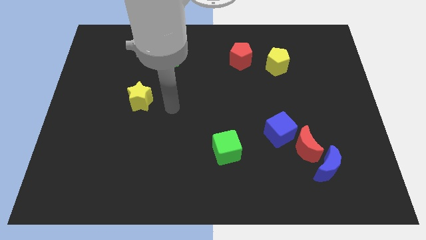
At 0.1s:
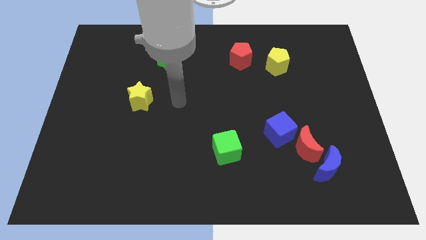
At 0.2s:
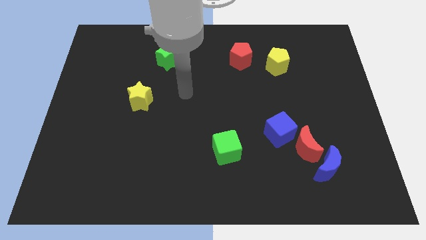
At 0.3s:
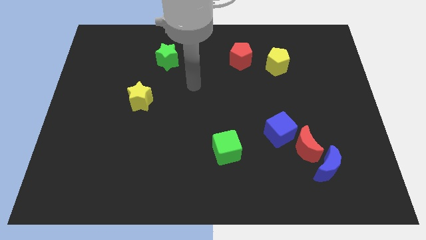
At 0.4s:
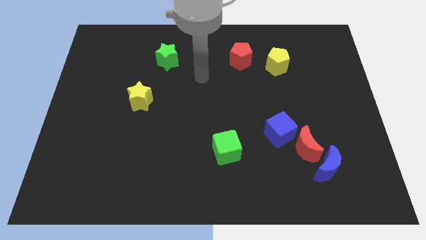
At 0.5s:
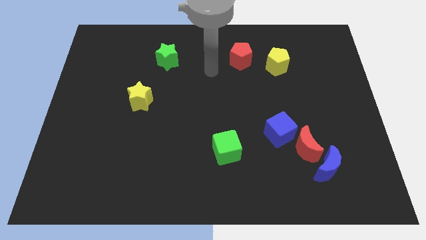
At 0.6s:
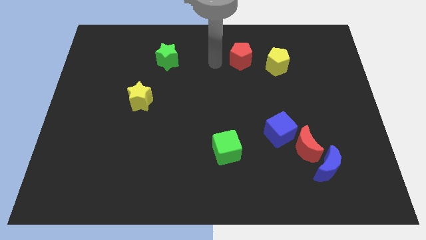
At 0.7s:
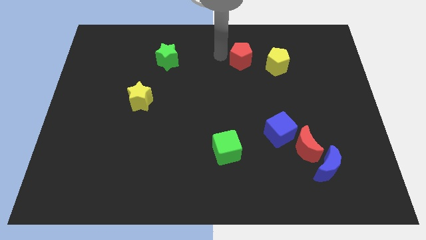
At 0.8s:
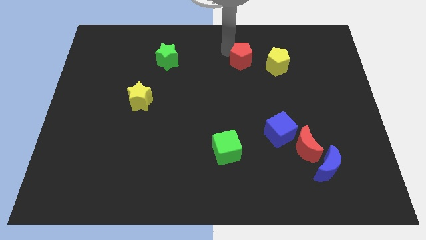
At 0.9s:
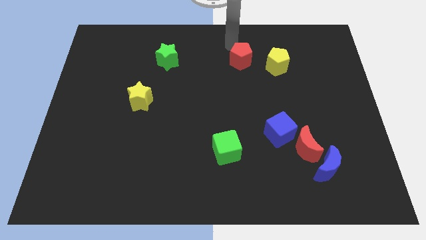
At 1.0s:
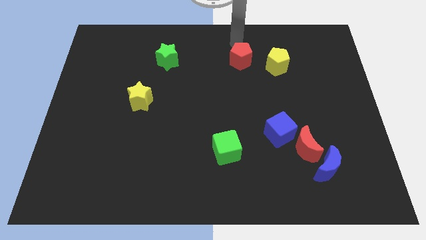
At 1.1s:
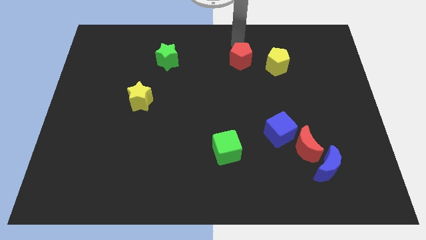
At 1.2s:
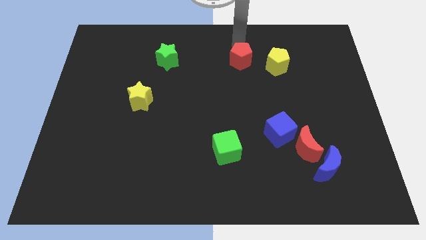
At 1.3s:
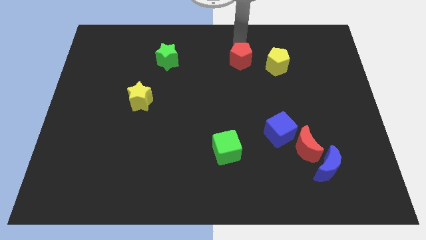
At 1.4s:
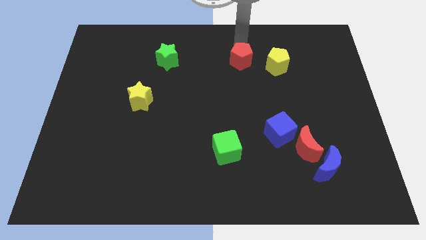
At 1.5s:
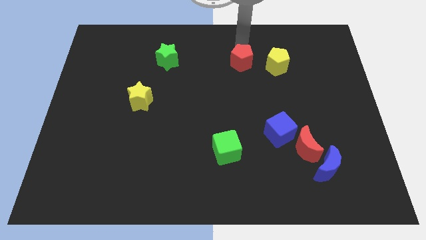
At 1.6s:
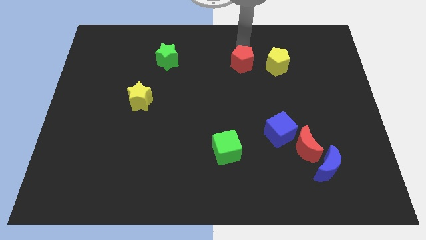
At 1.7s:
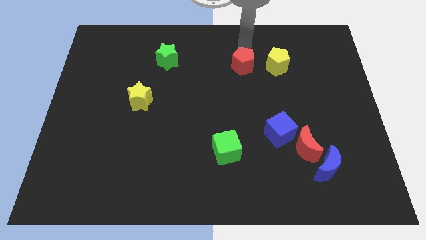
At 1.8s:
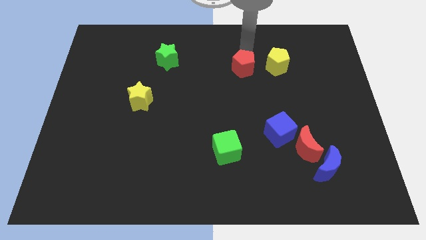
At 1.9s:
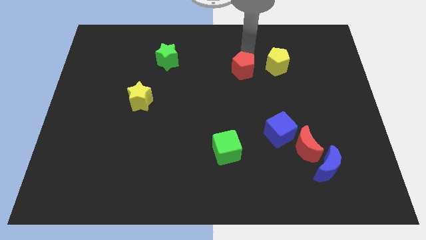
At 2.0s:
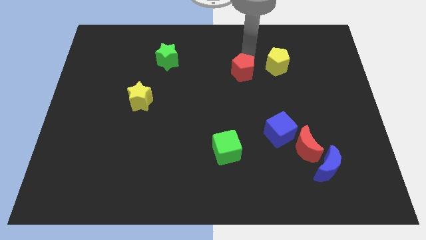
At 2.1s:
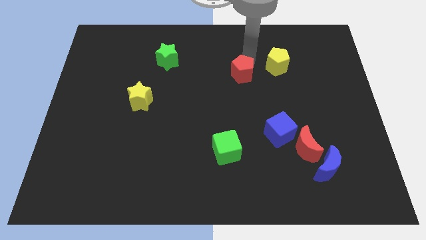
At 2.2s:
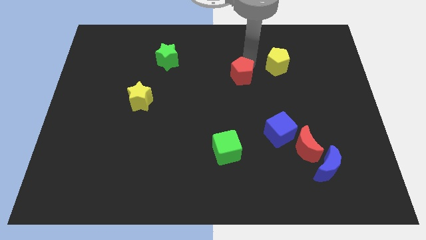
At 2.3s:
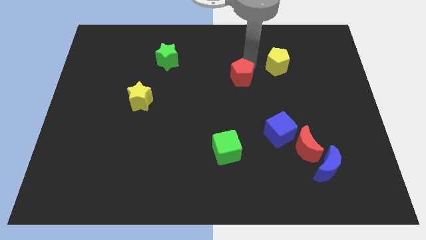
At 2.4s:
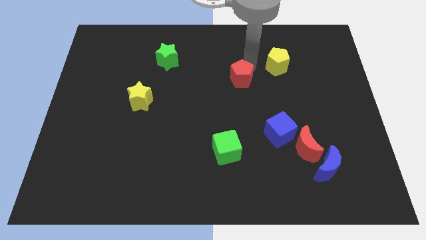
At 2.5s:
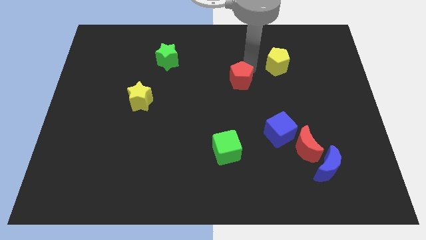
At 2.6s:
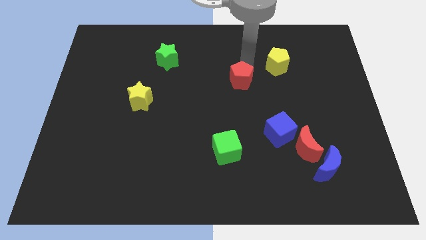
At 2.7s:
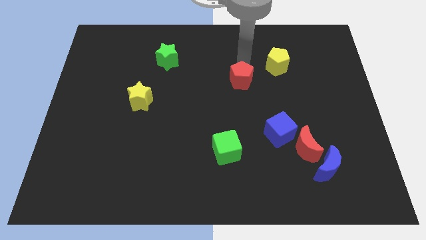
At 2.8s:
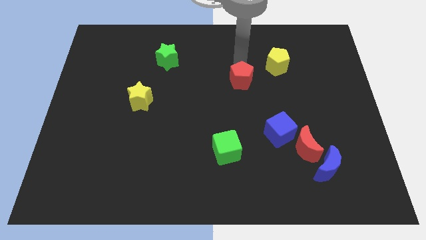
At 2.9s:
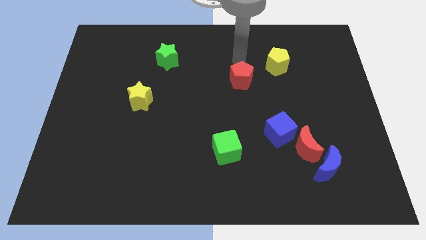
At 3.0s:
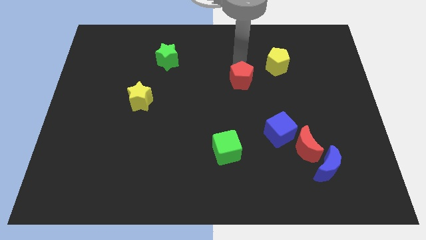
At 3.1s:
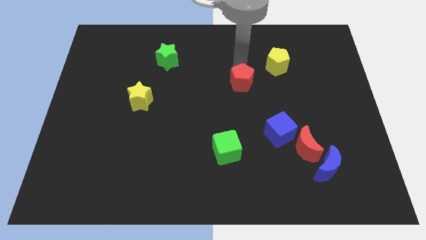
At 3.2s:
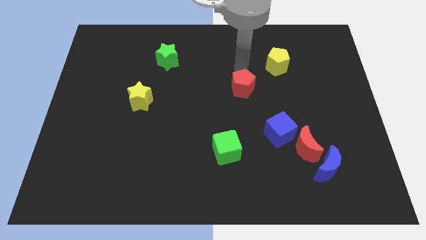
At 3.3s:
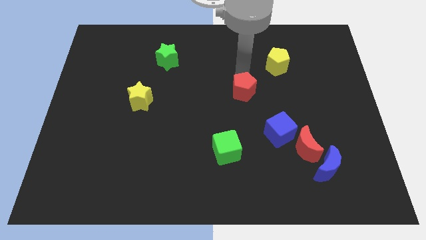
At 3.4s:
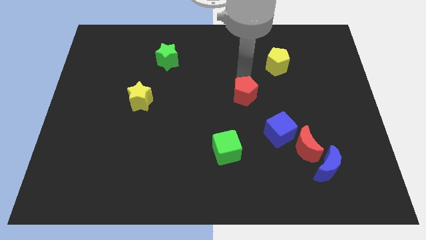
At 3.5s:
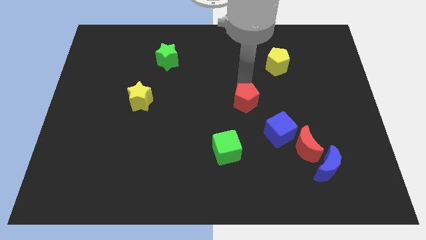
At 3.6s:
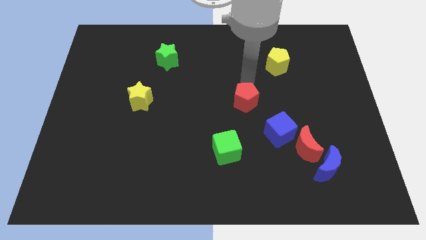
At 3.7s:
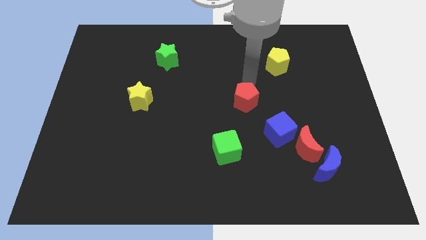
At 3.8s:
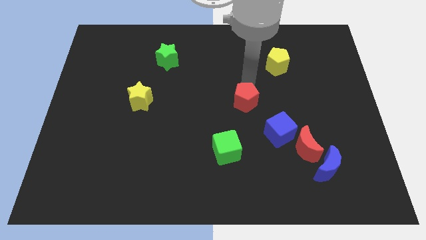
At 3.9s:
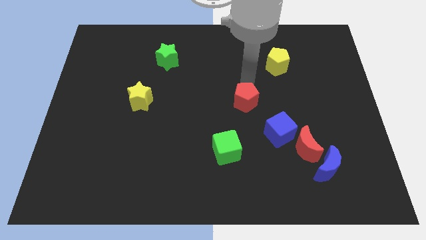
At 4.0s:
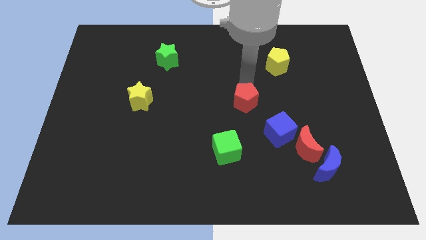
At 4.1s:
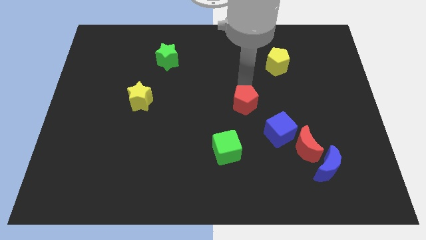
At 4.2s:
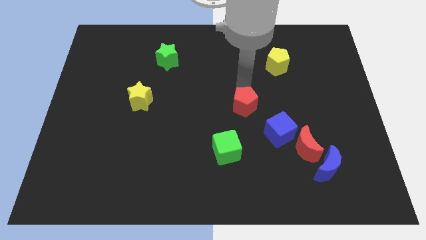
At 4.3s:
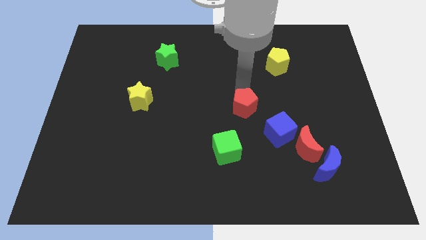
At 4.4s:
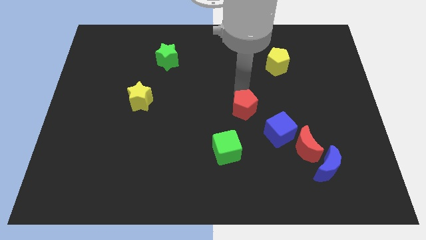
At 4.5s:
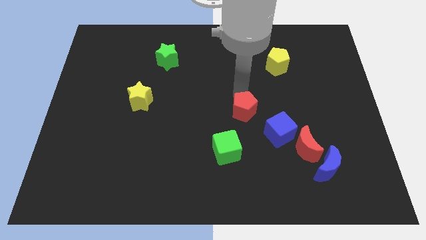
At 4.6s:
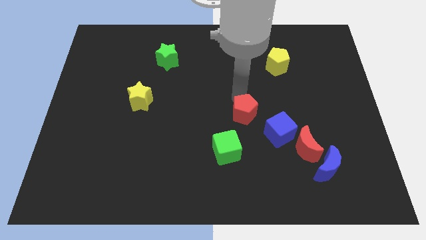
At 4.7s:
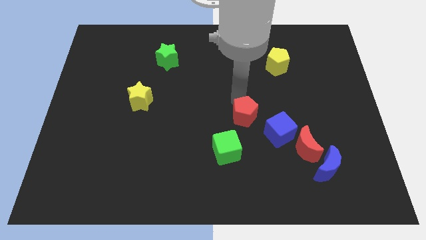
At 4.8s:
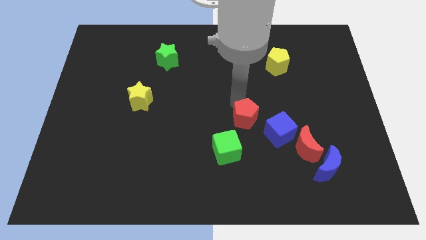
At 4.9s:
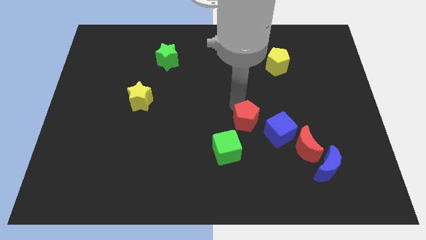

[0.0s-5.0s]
move the red pentagon downwards

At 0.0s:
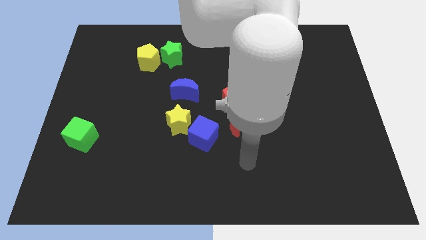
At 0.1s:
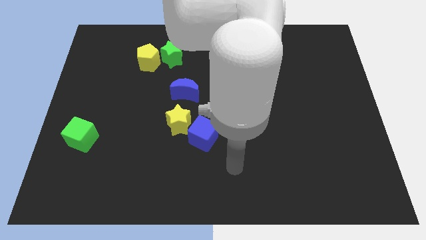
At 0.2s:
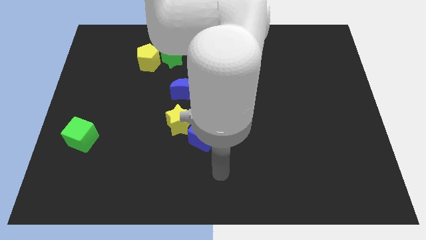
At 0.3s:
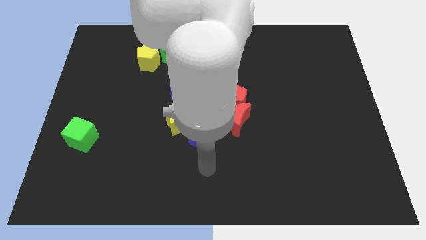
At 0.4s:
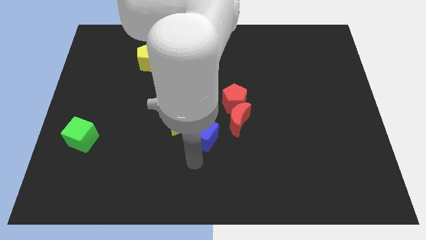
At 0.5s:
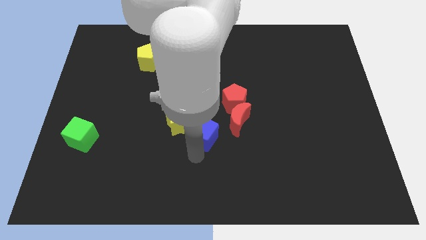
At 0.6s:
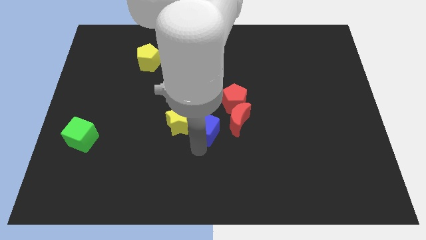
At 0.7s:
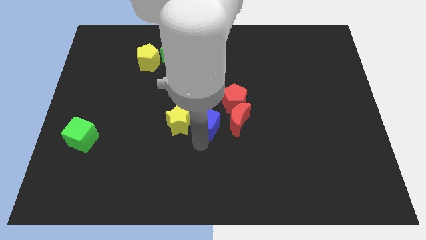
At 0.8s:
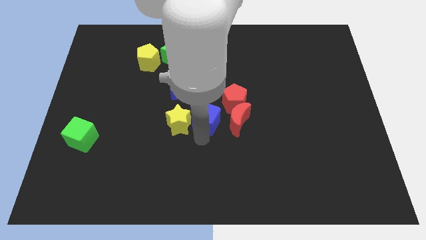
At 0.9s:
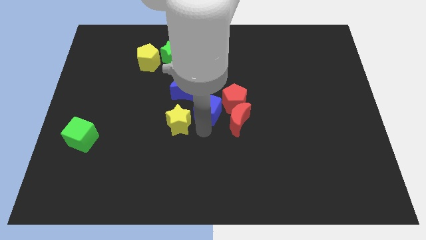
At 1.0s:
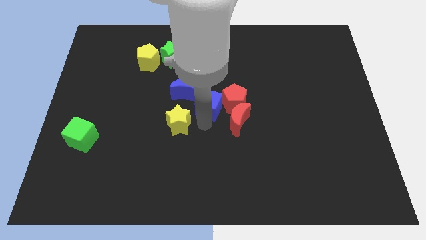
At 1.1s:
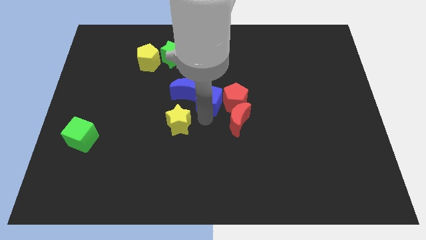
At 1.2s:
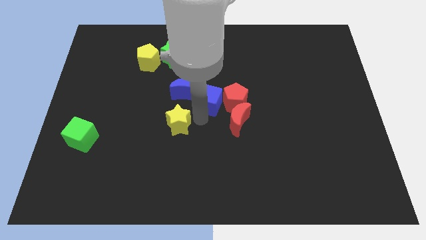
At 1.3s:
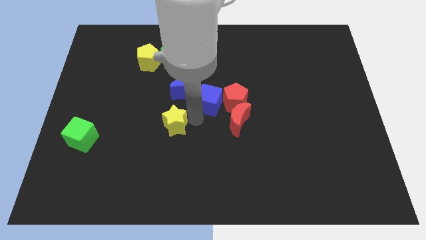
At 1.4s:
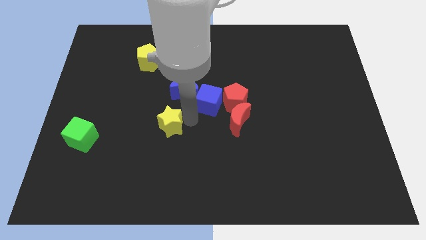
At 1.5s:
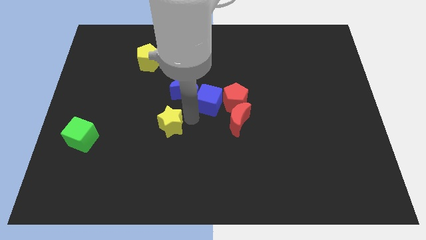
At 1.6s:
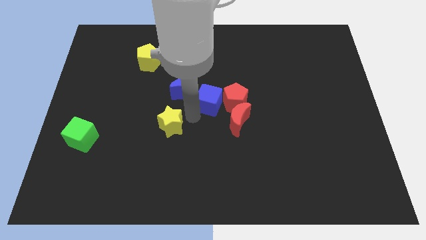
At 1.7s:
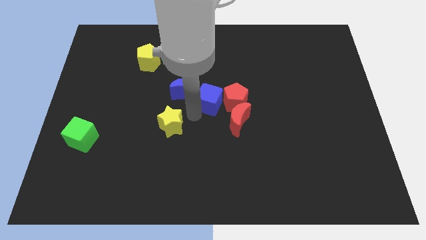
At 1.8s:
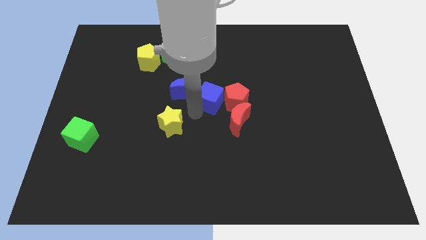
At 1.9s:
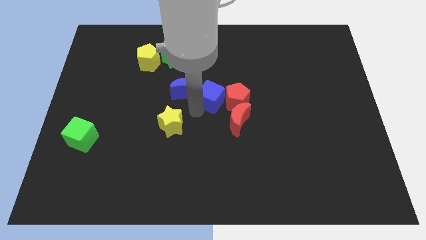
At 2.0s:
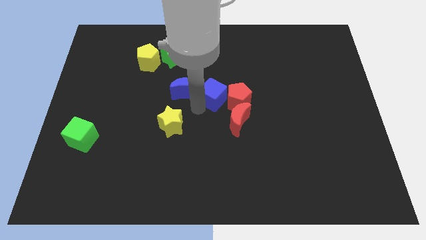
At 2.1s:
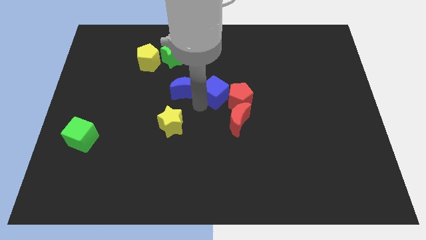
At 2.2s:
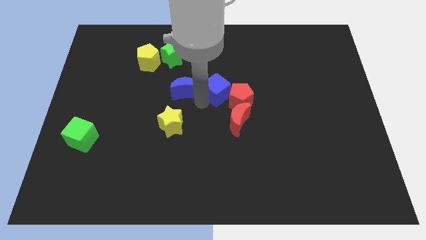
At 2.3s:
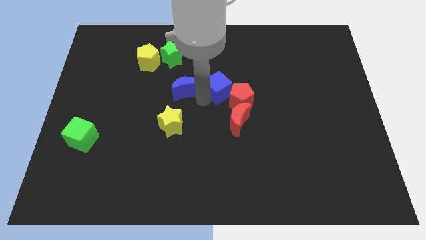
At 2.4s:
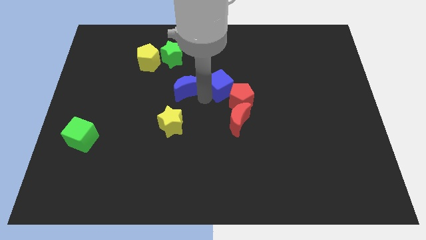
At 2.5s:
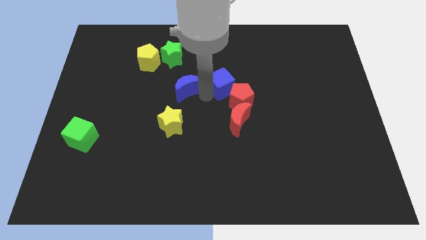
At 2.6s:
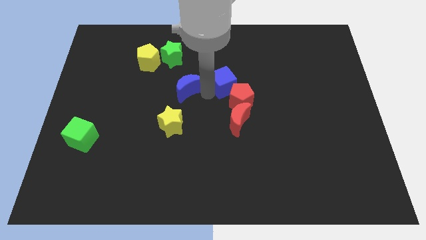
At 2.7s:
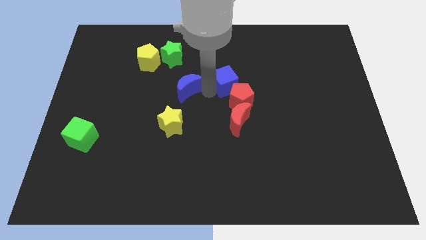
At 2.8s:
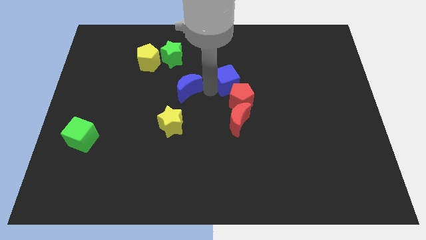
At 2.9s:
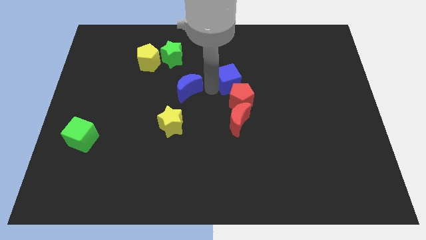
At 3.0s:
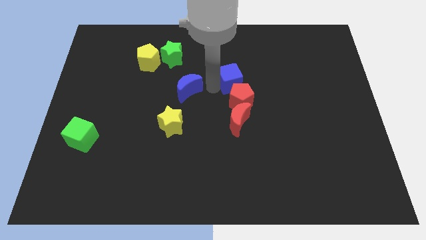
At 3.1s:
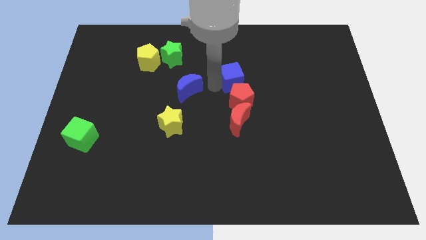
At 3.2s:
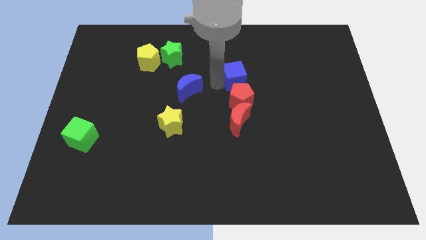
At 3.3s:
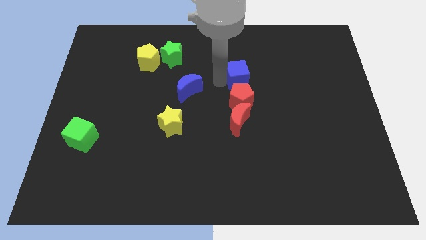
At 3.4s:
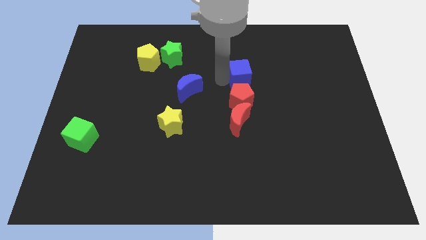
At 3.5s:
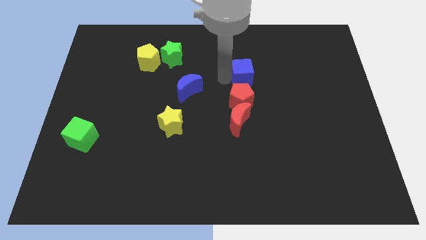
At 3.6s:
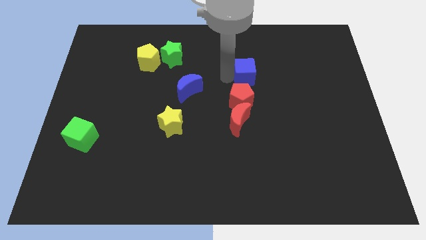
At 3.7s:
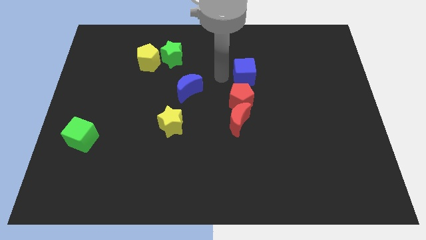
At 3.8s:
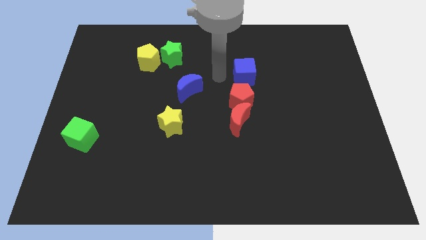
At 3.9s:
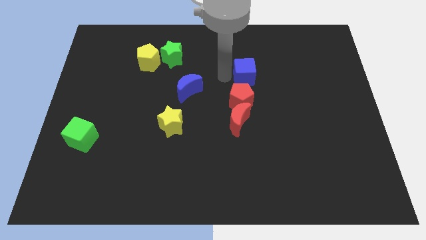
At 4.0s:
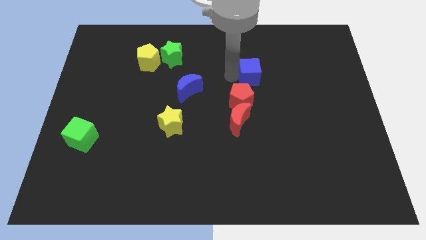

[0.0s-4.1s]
move the blue cube upwards and right
